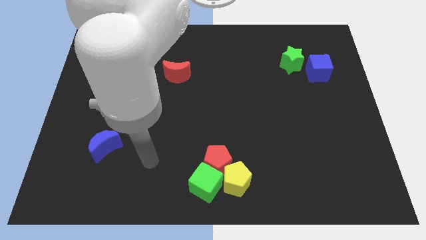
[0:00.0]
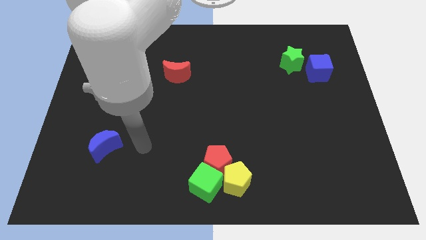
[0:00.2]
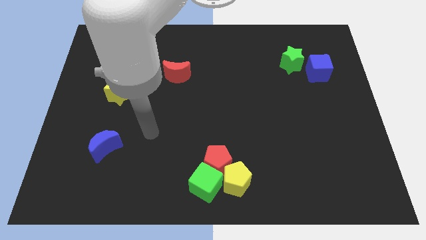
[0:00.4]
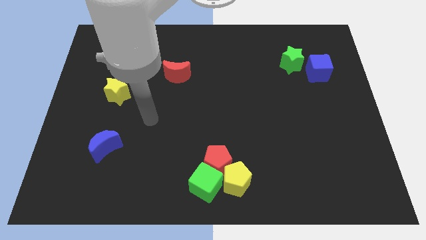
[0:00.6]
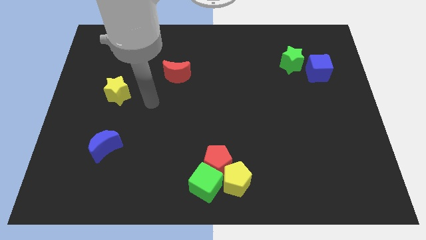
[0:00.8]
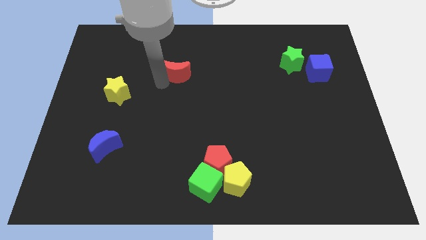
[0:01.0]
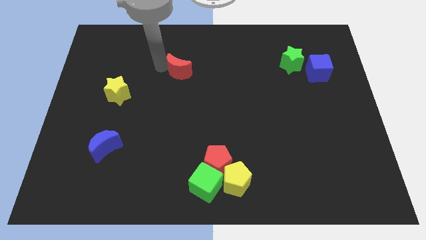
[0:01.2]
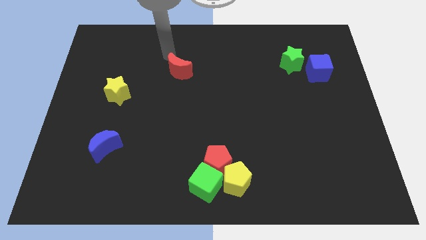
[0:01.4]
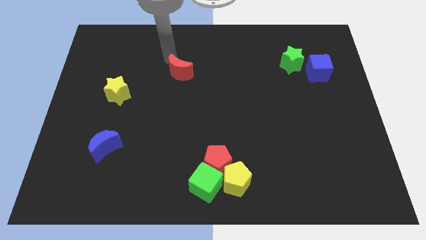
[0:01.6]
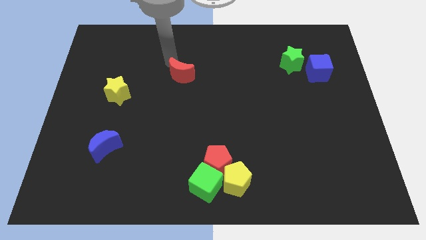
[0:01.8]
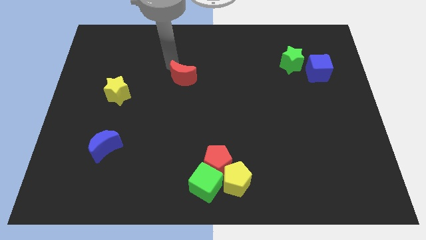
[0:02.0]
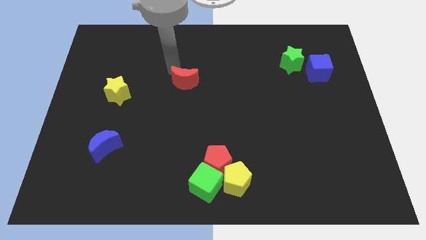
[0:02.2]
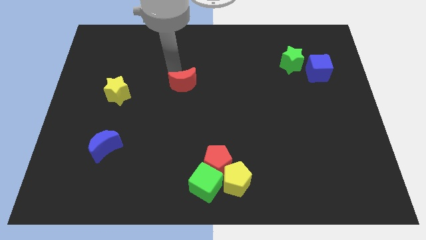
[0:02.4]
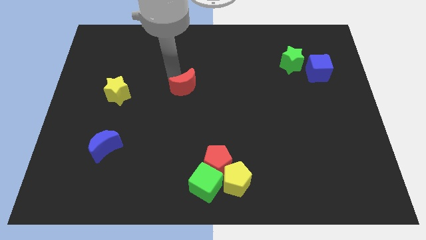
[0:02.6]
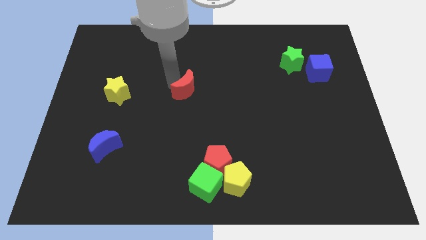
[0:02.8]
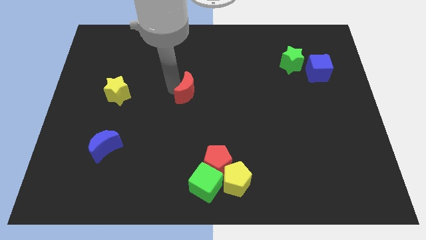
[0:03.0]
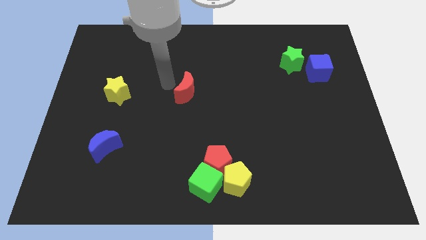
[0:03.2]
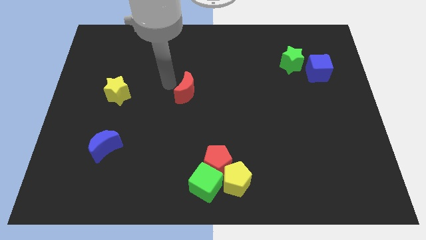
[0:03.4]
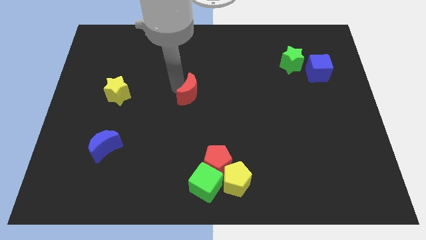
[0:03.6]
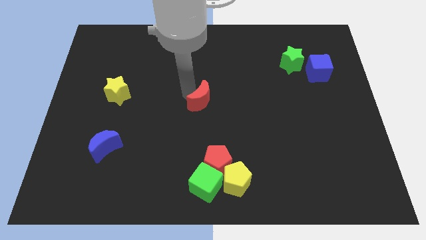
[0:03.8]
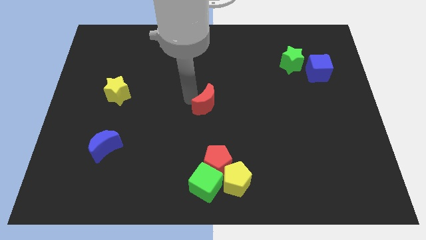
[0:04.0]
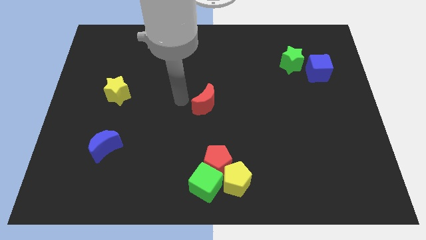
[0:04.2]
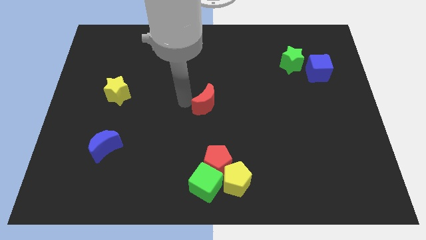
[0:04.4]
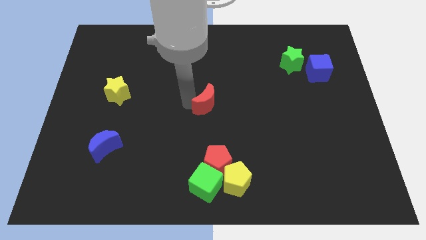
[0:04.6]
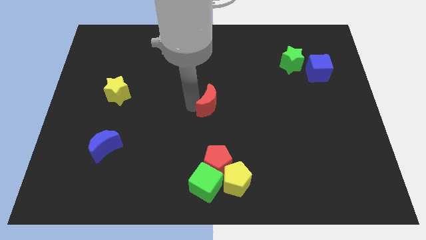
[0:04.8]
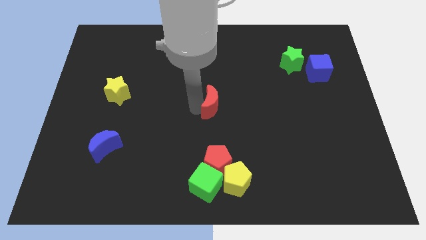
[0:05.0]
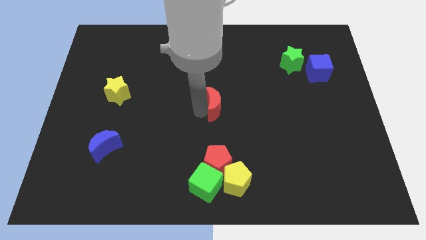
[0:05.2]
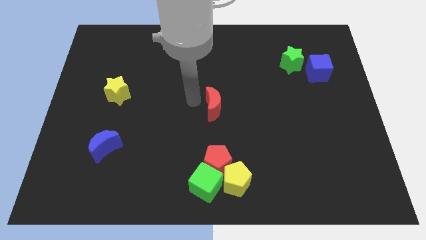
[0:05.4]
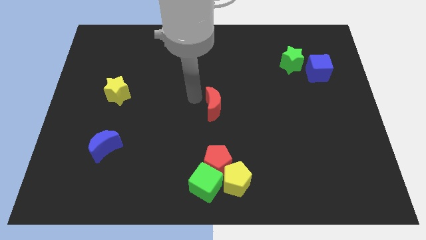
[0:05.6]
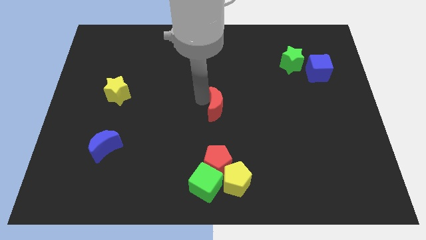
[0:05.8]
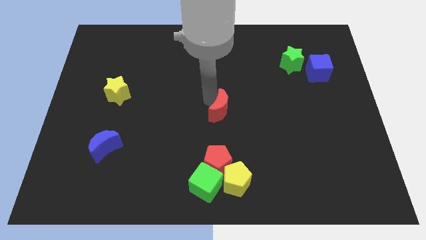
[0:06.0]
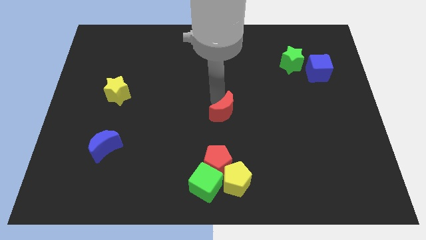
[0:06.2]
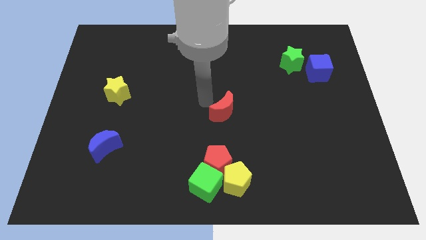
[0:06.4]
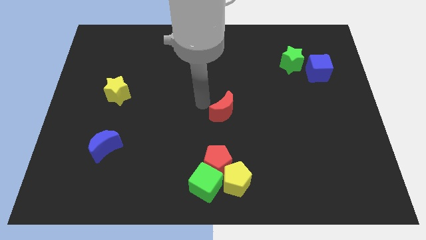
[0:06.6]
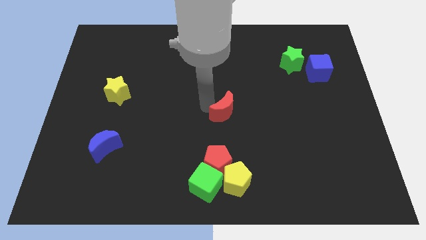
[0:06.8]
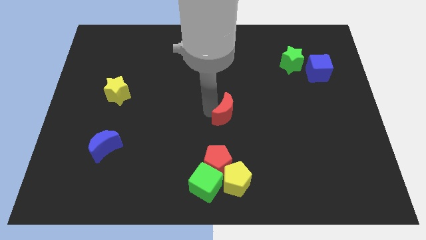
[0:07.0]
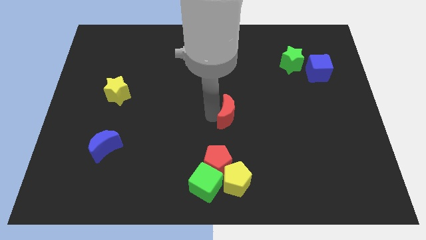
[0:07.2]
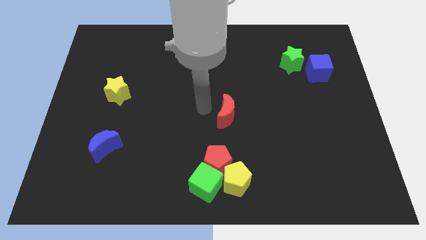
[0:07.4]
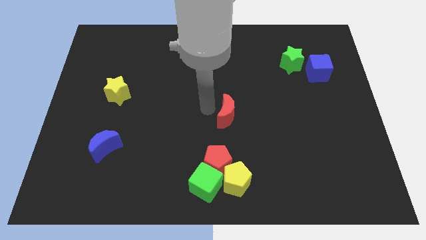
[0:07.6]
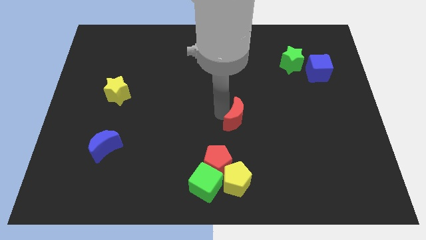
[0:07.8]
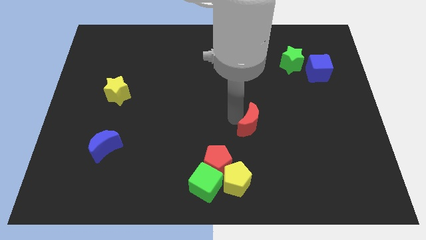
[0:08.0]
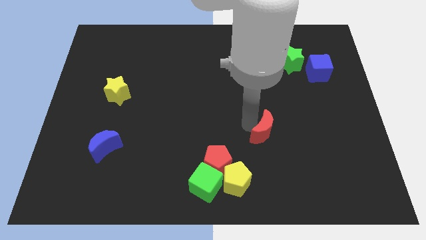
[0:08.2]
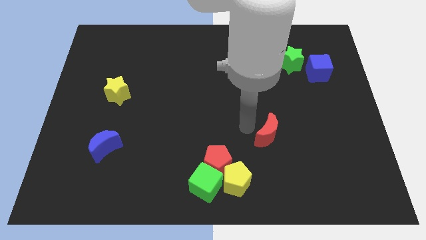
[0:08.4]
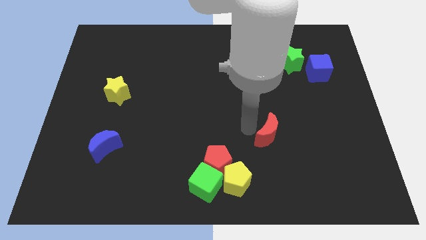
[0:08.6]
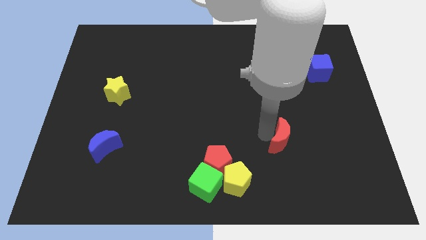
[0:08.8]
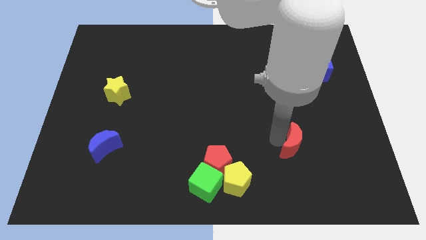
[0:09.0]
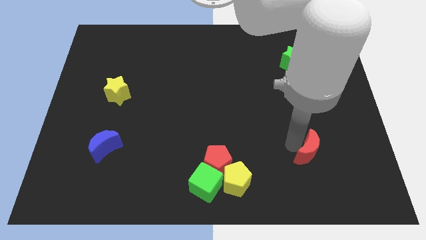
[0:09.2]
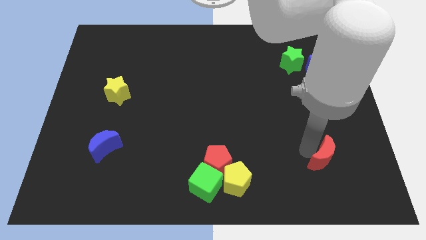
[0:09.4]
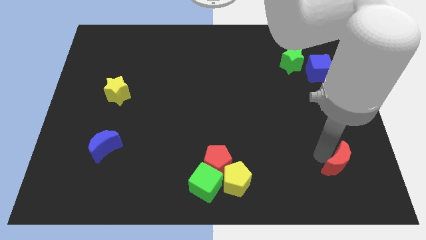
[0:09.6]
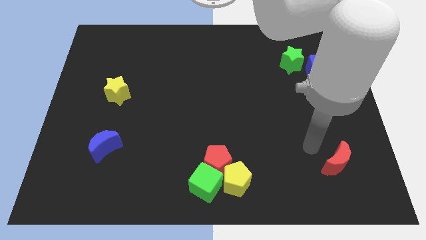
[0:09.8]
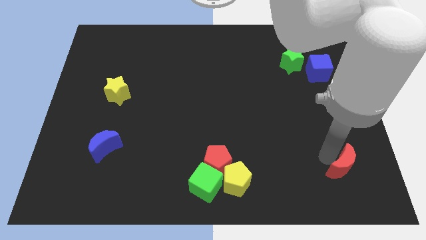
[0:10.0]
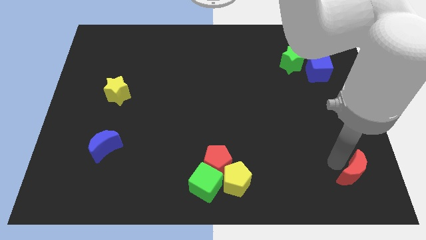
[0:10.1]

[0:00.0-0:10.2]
put the red moon to the bottom right of the board

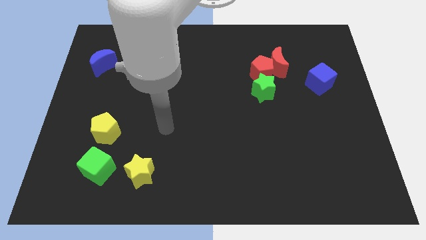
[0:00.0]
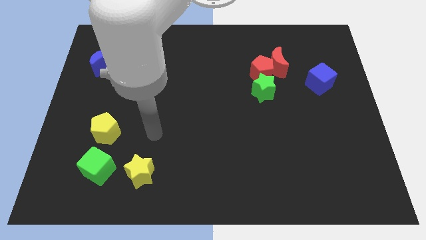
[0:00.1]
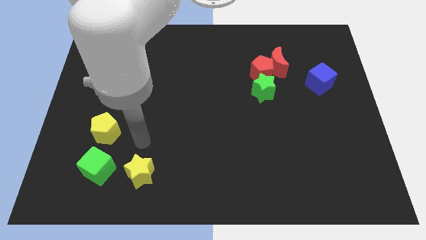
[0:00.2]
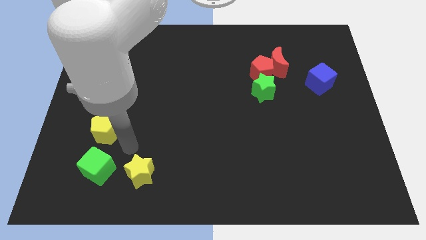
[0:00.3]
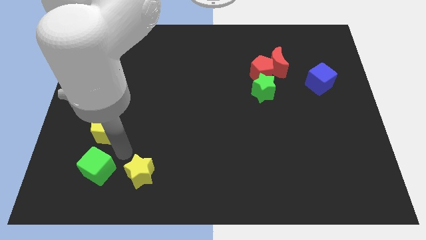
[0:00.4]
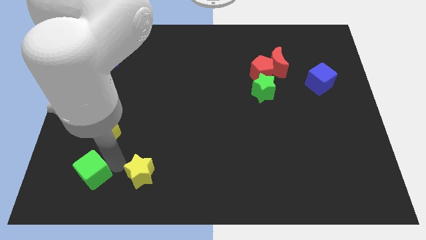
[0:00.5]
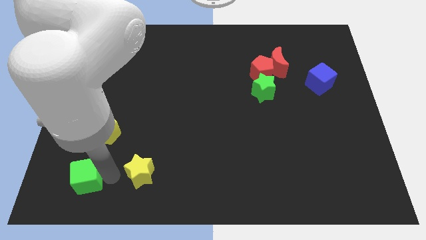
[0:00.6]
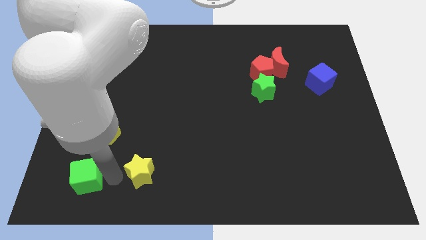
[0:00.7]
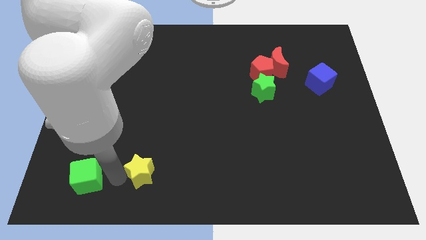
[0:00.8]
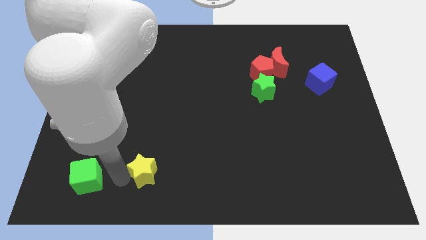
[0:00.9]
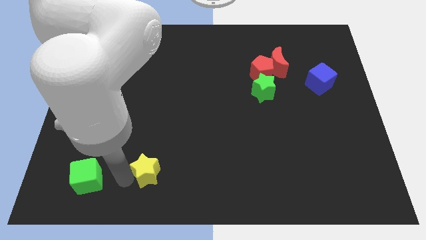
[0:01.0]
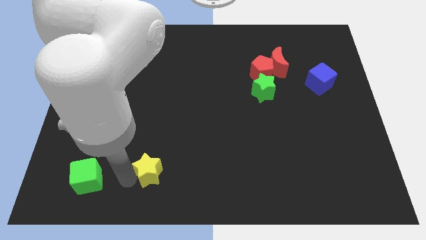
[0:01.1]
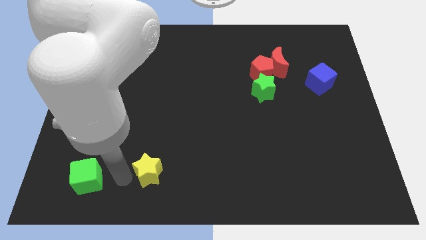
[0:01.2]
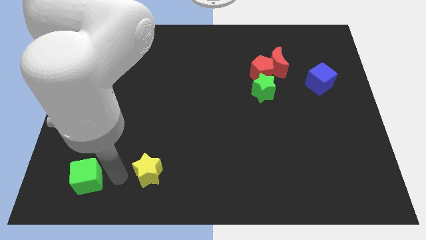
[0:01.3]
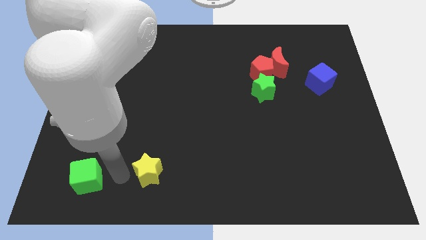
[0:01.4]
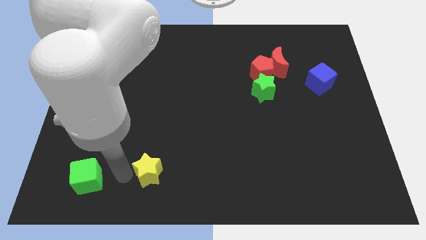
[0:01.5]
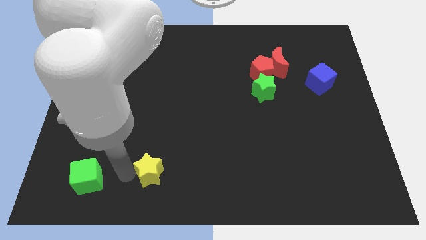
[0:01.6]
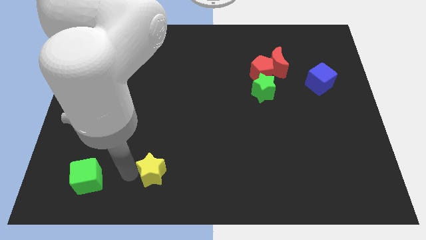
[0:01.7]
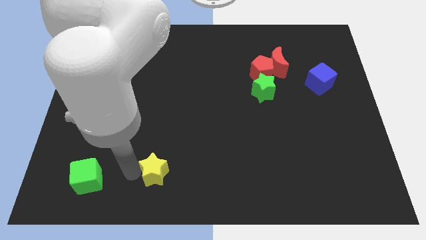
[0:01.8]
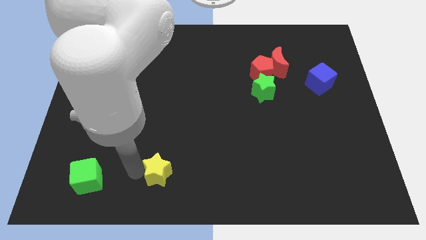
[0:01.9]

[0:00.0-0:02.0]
move the yellow star to the bottom
